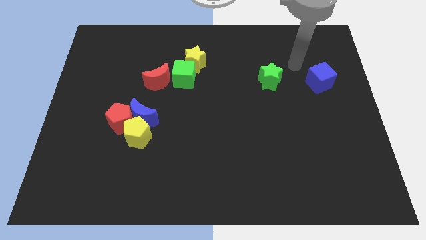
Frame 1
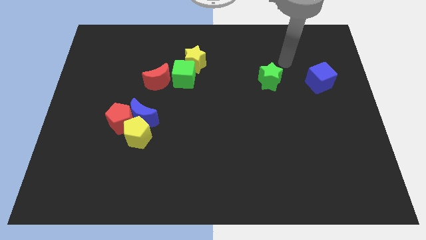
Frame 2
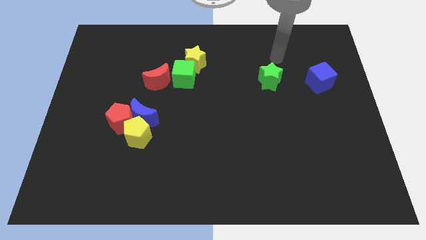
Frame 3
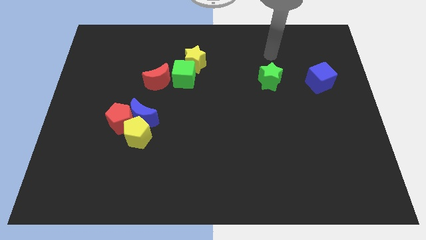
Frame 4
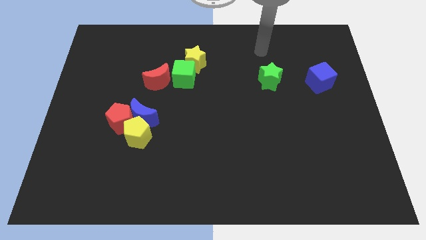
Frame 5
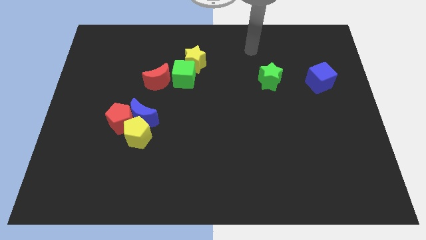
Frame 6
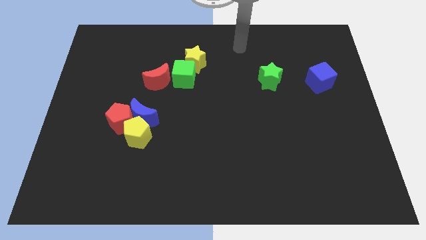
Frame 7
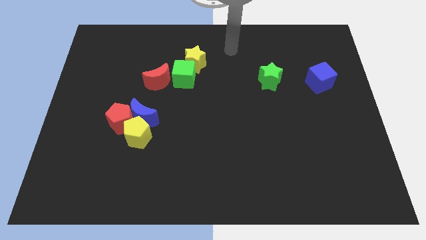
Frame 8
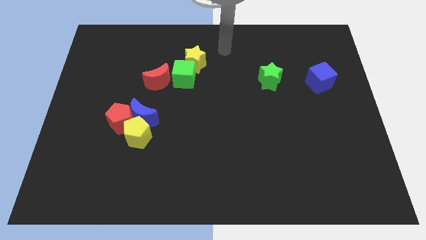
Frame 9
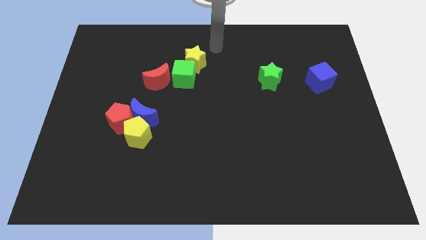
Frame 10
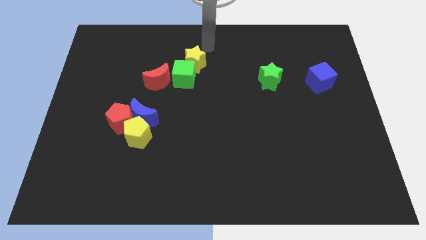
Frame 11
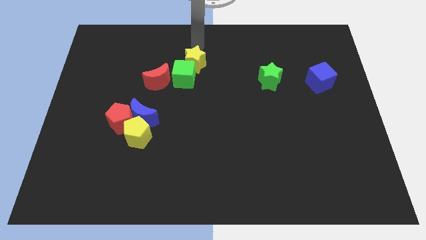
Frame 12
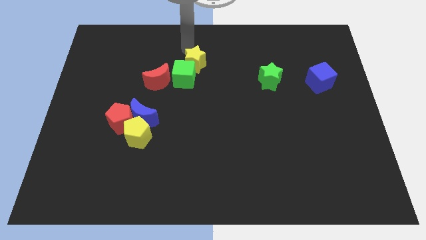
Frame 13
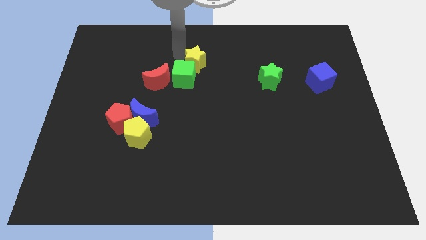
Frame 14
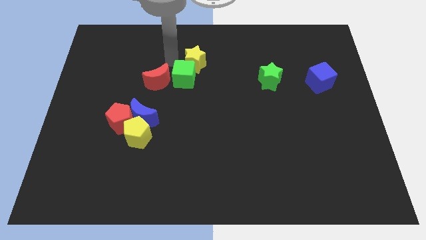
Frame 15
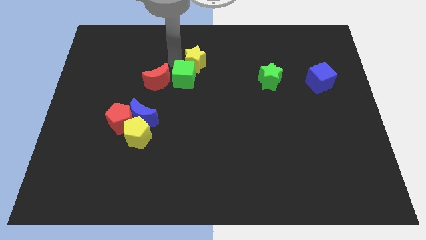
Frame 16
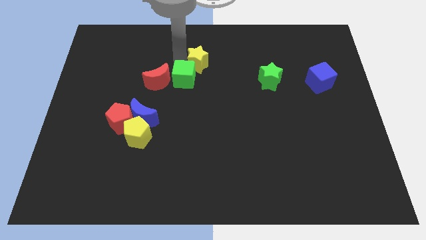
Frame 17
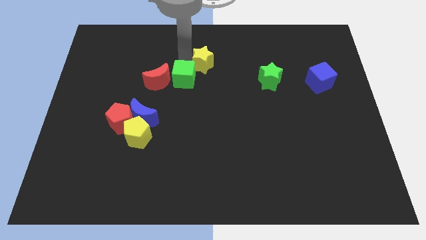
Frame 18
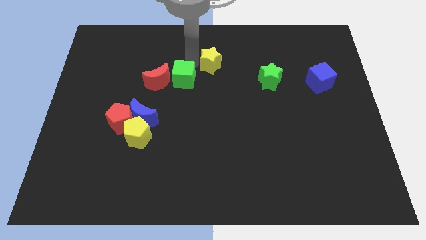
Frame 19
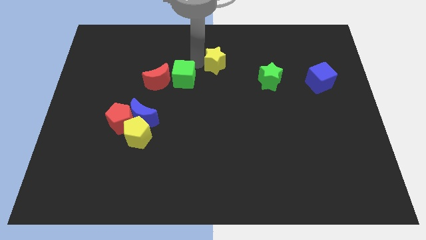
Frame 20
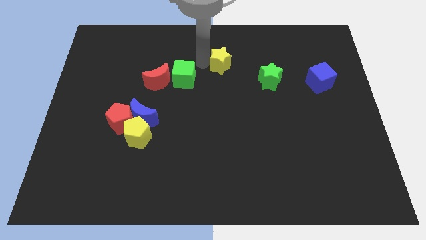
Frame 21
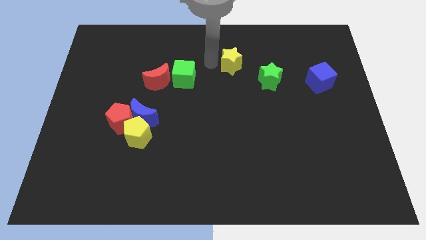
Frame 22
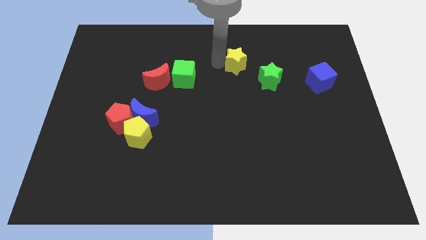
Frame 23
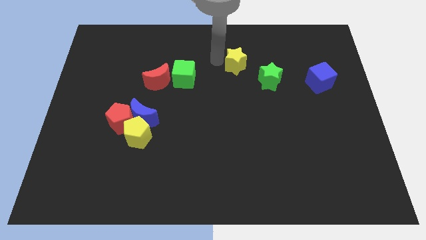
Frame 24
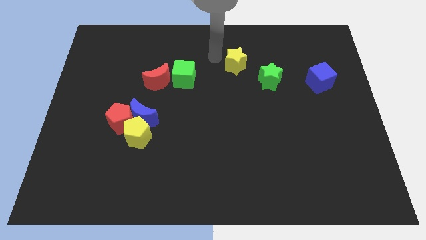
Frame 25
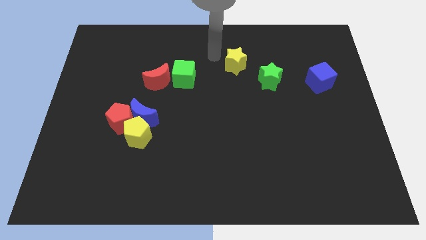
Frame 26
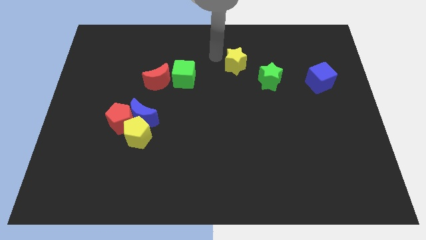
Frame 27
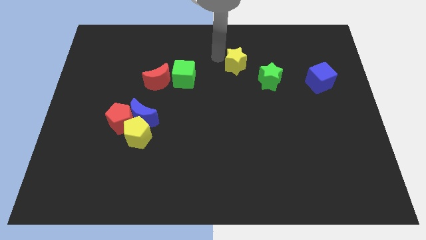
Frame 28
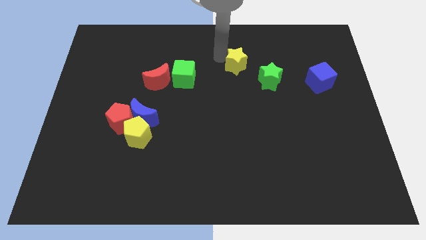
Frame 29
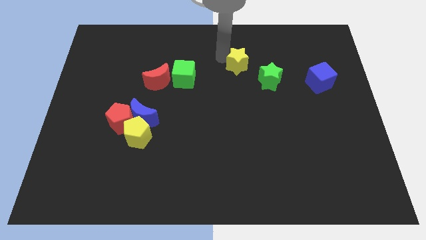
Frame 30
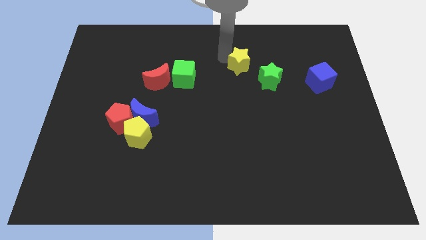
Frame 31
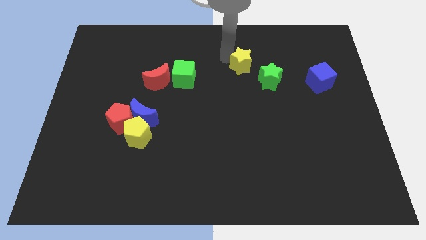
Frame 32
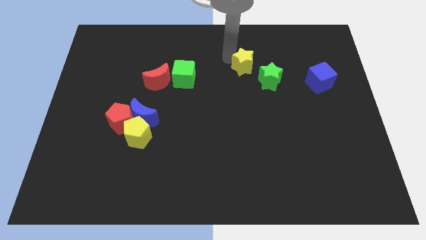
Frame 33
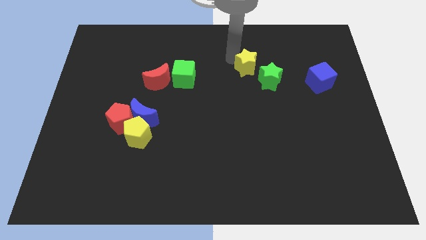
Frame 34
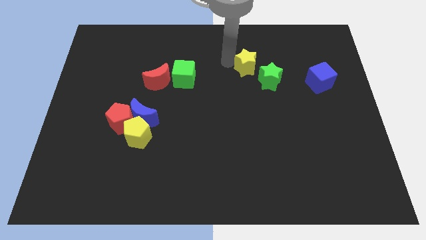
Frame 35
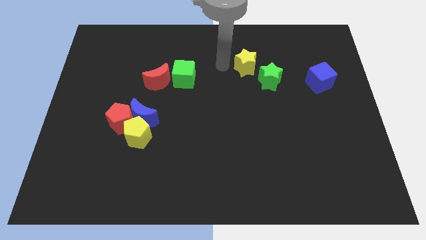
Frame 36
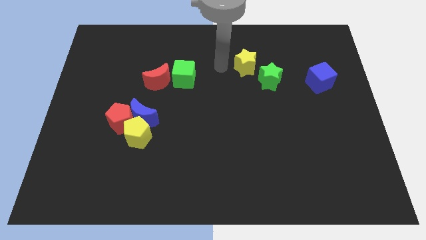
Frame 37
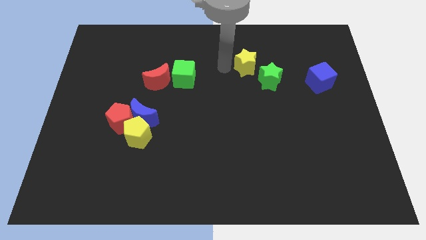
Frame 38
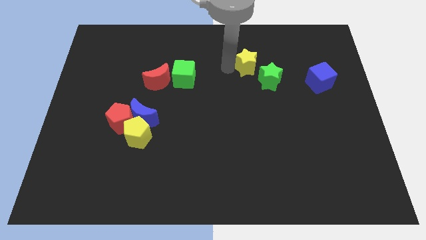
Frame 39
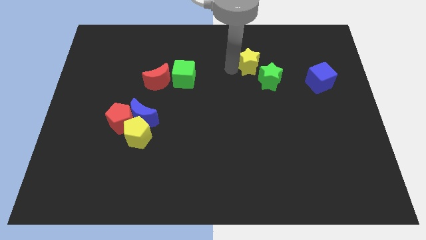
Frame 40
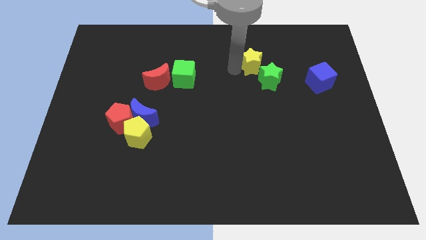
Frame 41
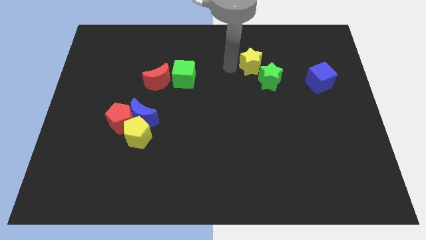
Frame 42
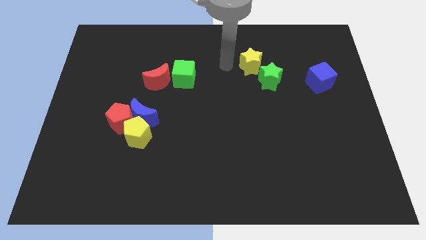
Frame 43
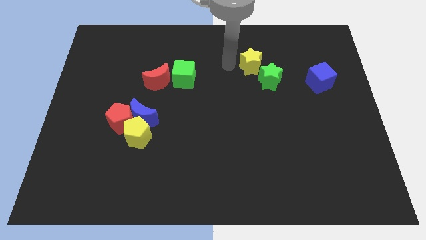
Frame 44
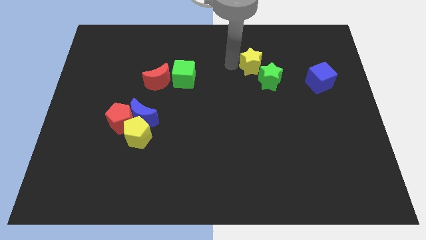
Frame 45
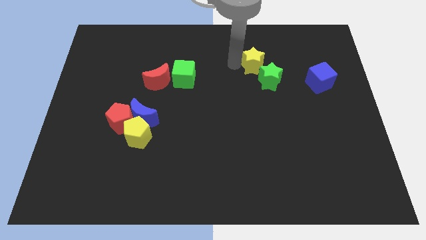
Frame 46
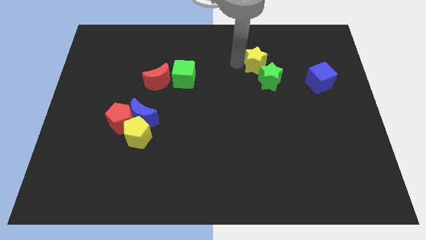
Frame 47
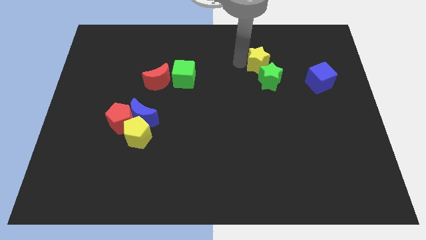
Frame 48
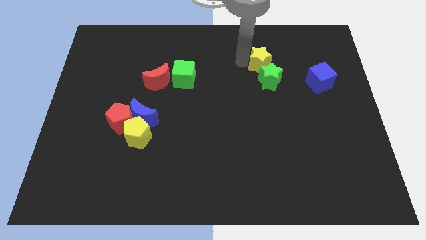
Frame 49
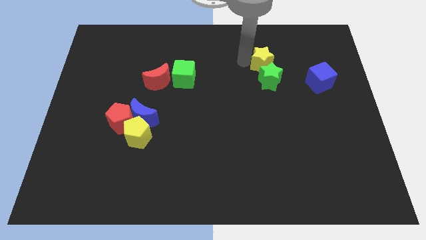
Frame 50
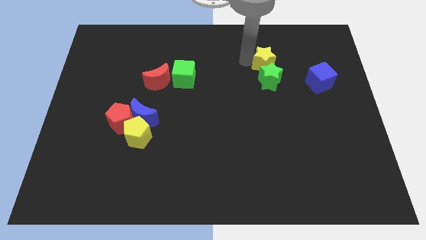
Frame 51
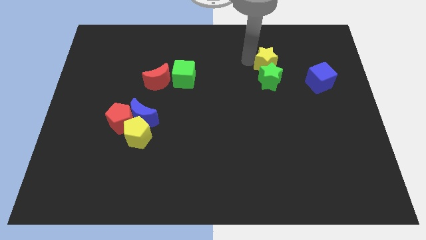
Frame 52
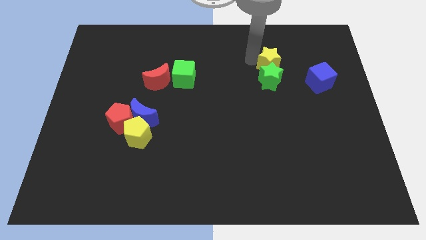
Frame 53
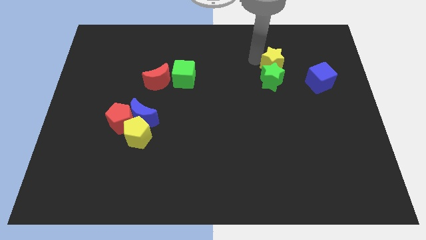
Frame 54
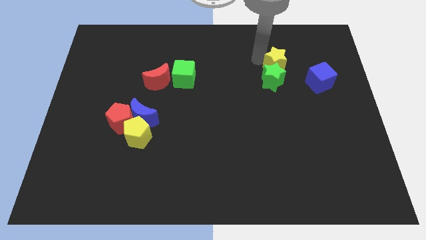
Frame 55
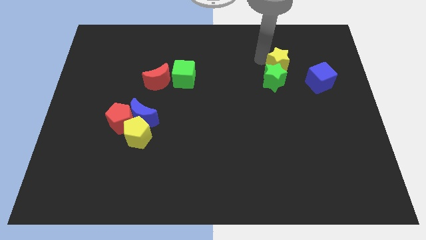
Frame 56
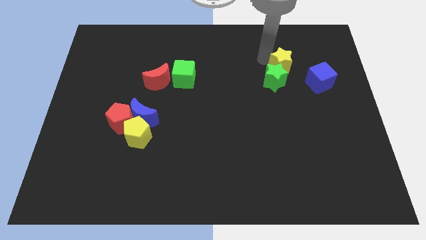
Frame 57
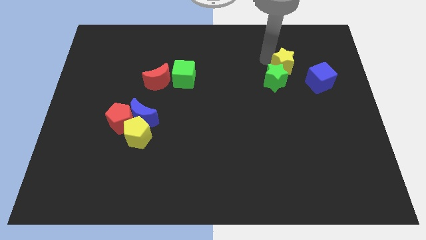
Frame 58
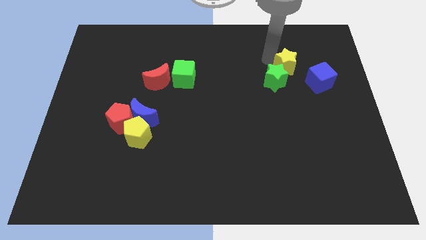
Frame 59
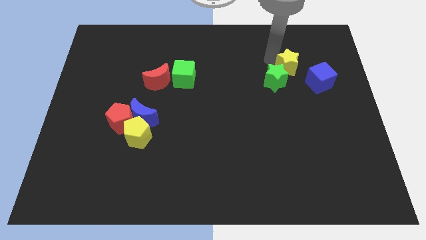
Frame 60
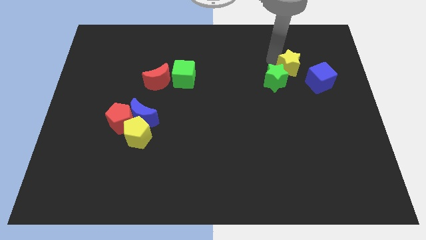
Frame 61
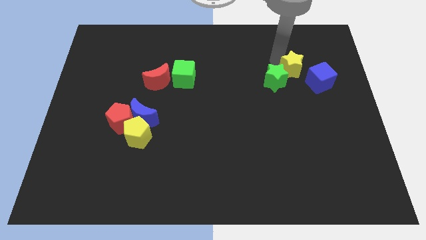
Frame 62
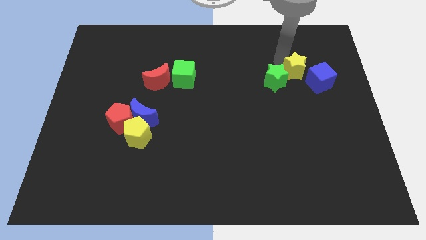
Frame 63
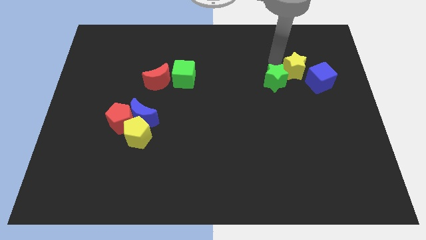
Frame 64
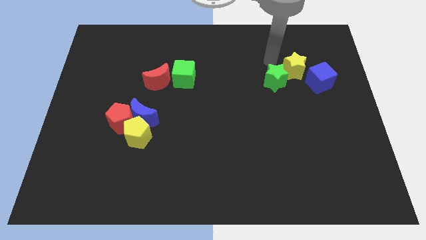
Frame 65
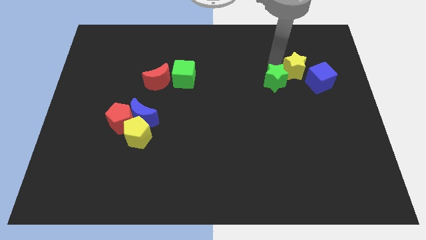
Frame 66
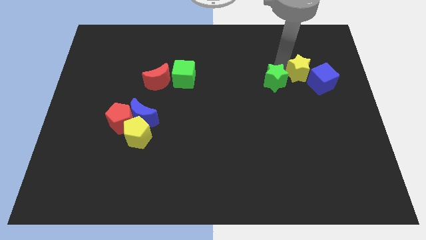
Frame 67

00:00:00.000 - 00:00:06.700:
put the yellow star towards the blue cube
